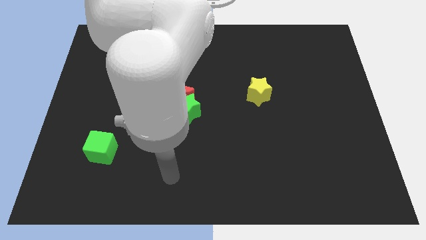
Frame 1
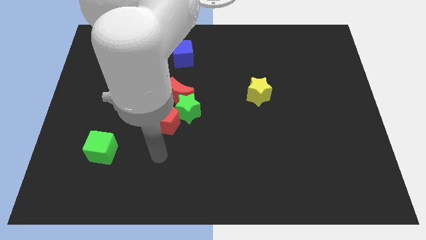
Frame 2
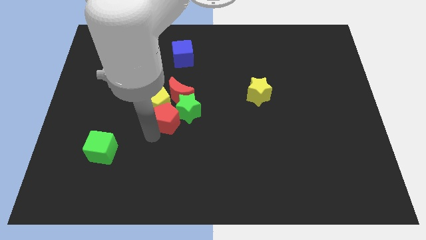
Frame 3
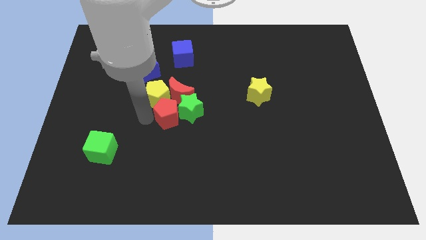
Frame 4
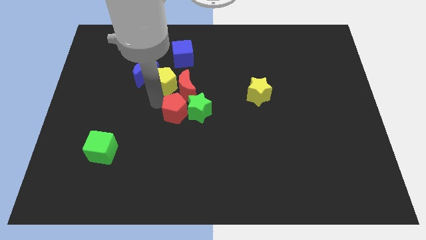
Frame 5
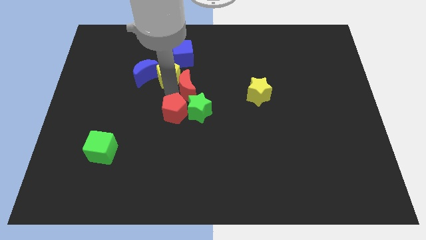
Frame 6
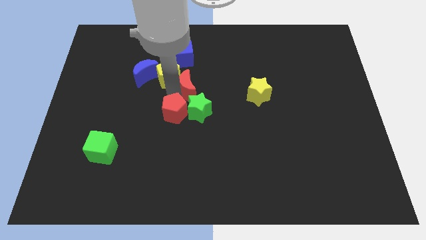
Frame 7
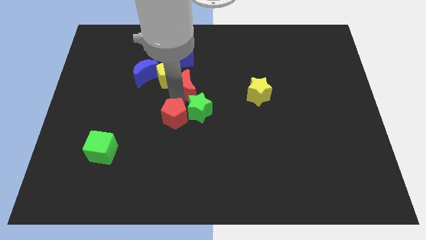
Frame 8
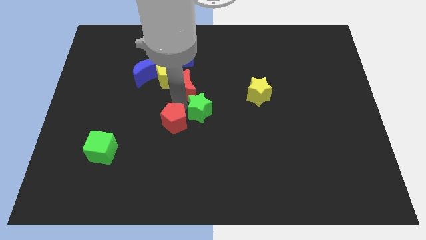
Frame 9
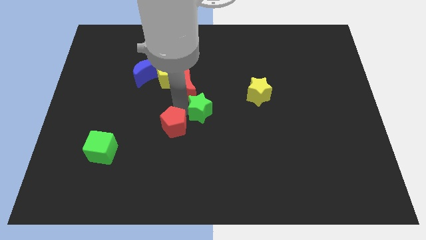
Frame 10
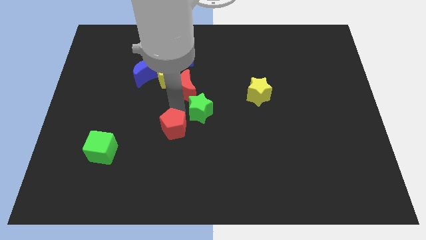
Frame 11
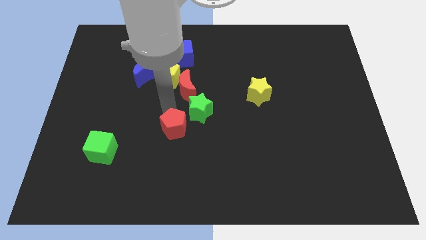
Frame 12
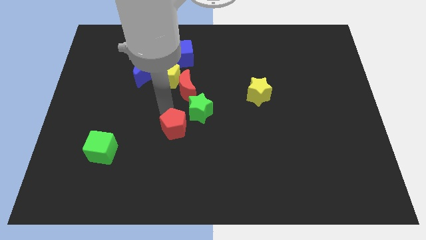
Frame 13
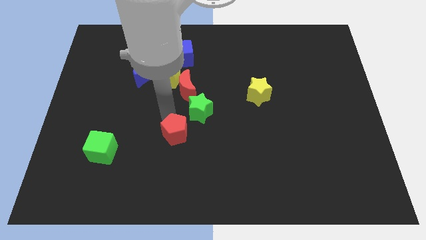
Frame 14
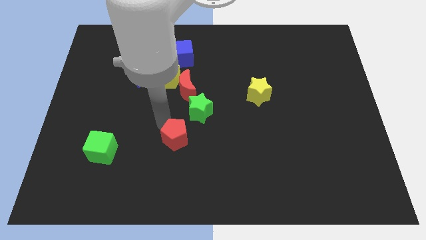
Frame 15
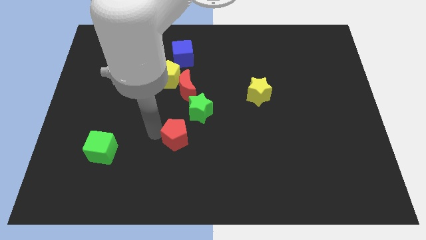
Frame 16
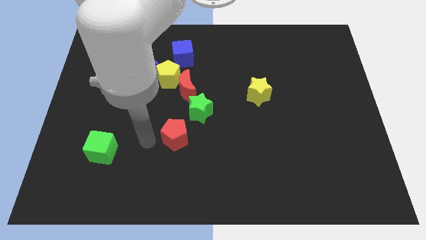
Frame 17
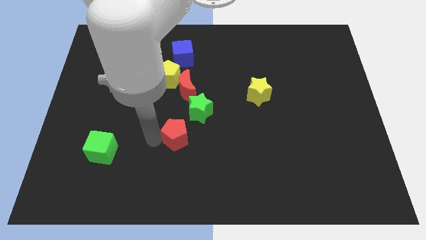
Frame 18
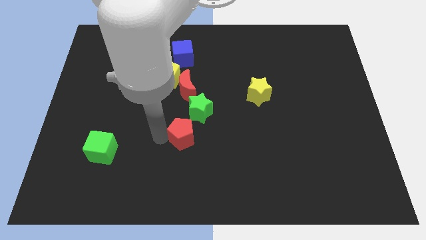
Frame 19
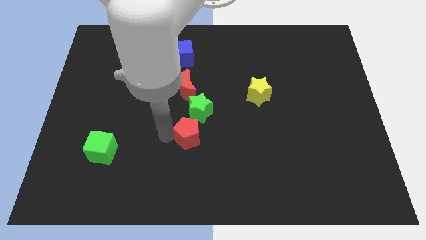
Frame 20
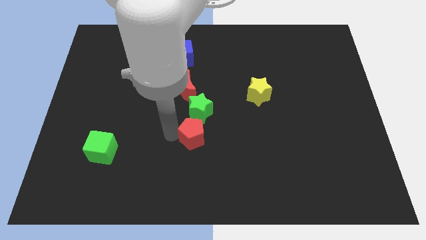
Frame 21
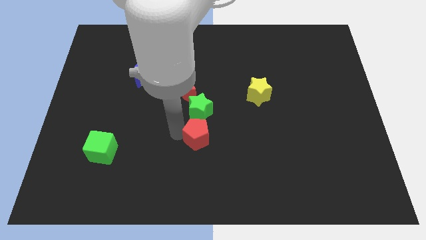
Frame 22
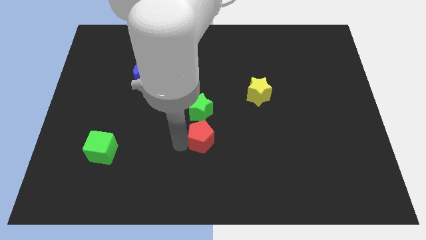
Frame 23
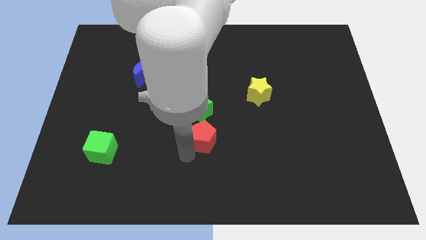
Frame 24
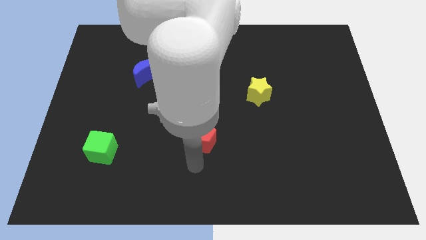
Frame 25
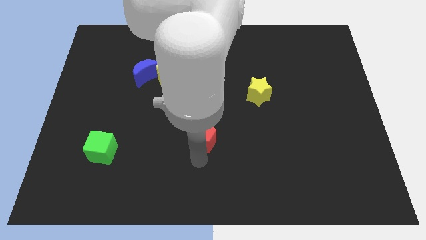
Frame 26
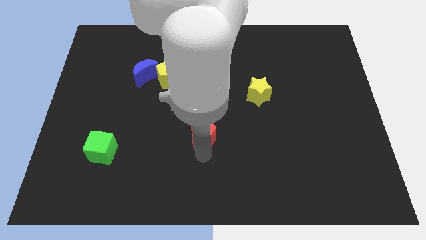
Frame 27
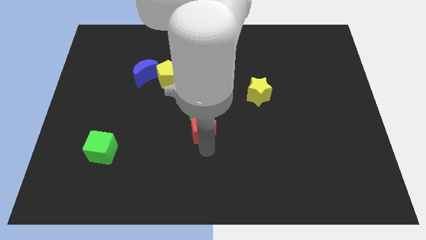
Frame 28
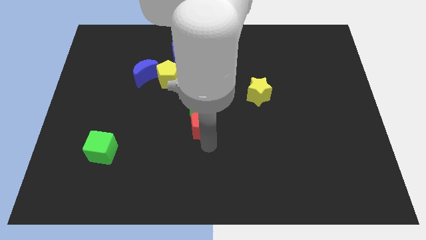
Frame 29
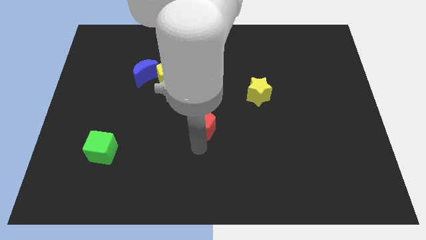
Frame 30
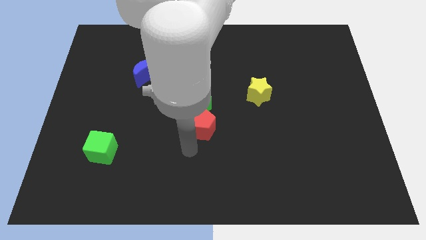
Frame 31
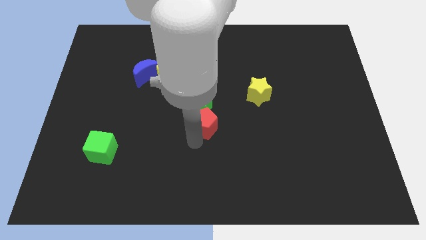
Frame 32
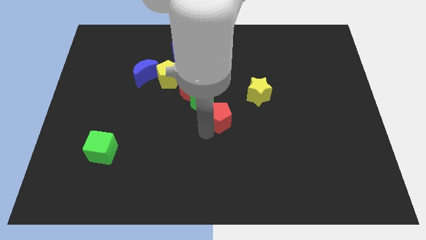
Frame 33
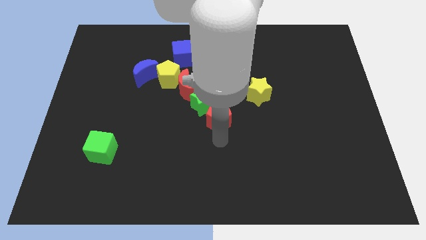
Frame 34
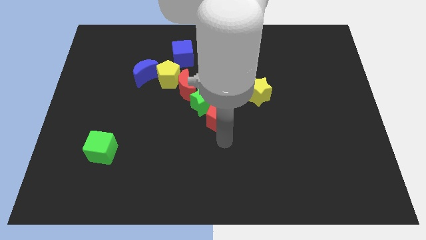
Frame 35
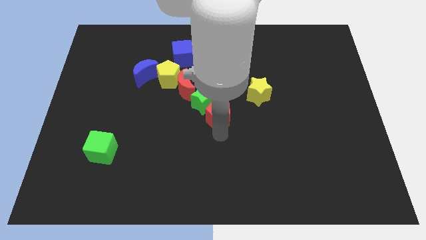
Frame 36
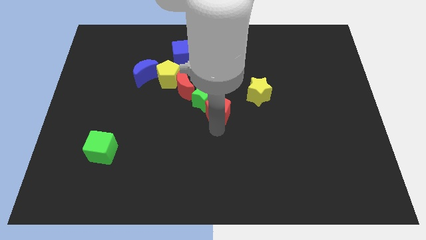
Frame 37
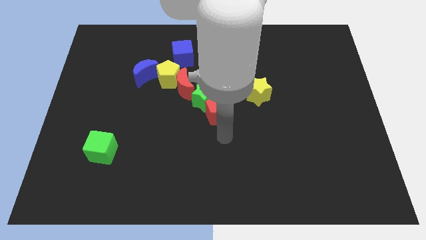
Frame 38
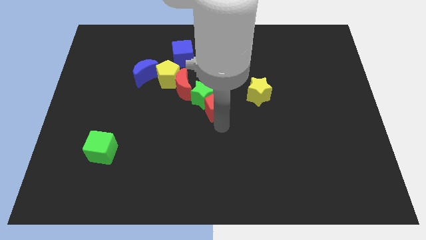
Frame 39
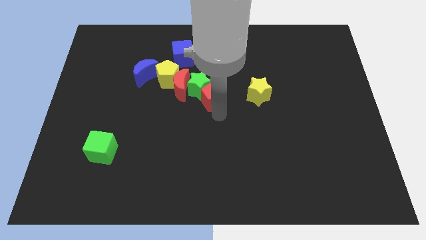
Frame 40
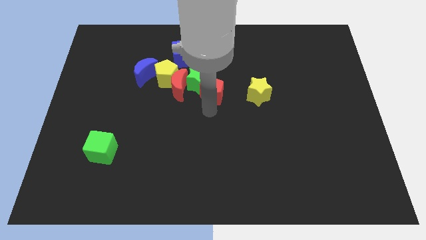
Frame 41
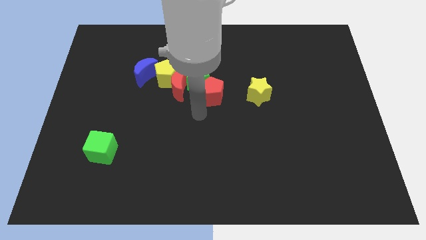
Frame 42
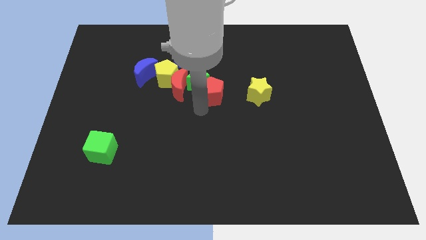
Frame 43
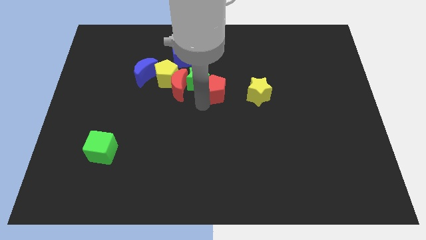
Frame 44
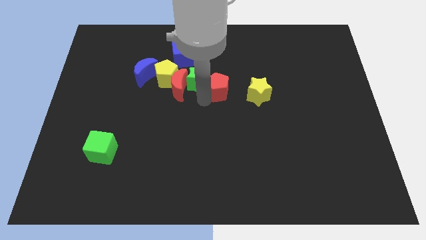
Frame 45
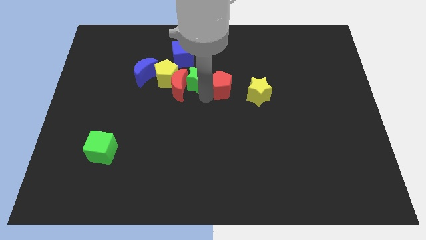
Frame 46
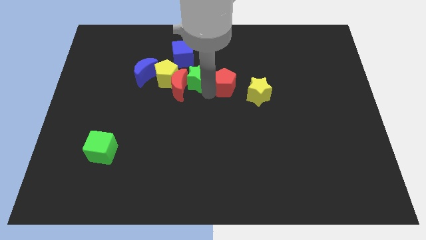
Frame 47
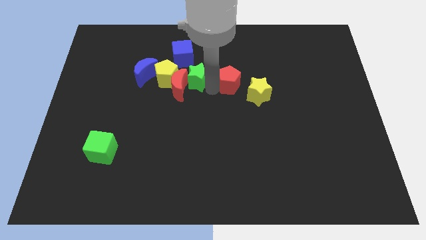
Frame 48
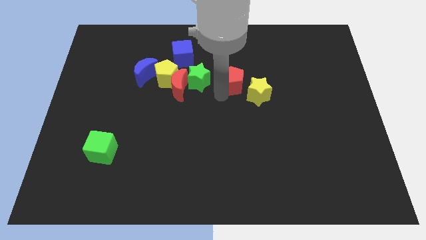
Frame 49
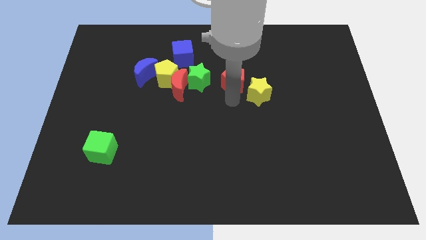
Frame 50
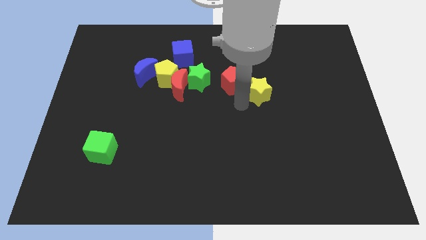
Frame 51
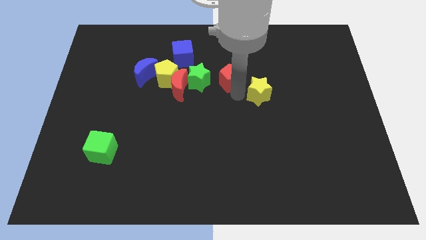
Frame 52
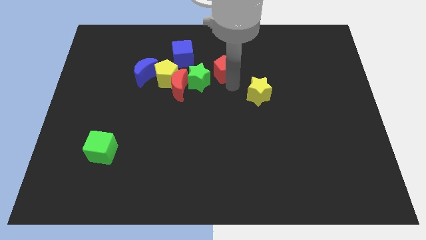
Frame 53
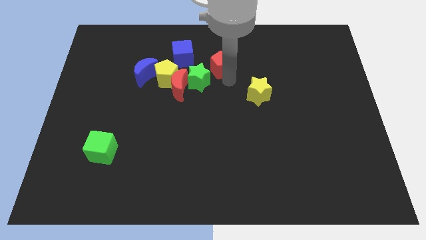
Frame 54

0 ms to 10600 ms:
put the red pentagon right of the blue cube

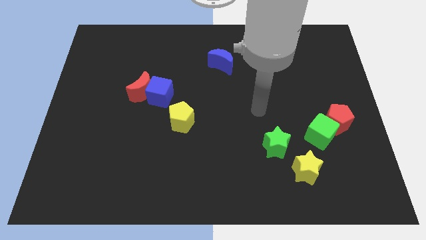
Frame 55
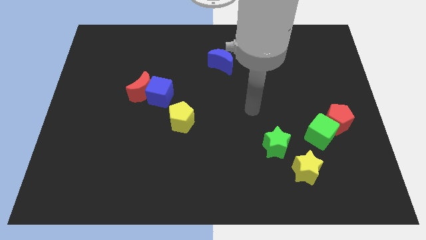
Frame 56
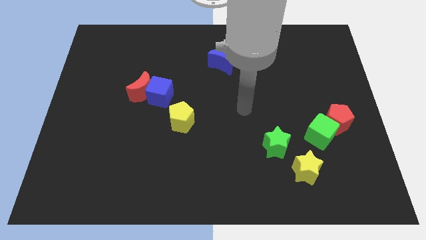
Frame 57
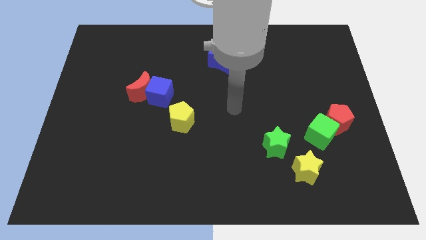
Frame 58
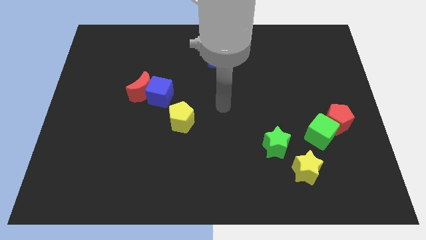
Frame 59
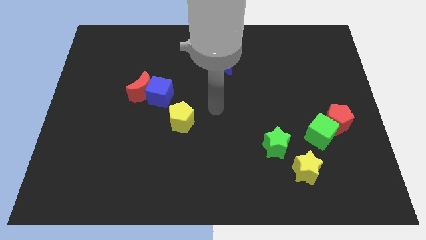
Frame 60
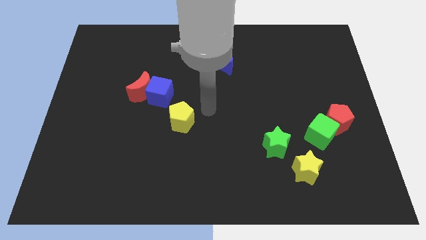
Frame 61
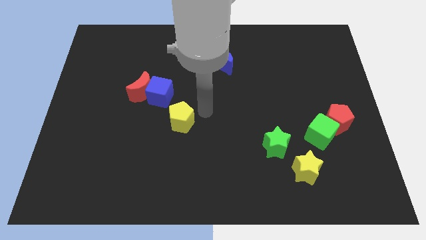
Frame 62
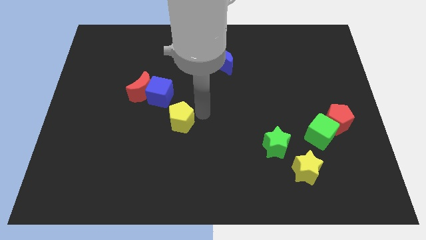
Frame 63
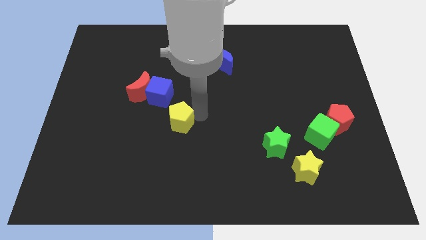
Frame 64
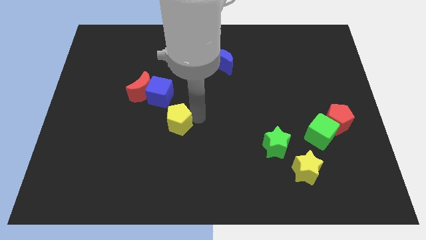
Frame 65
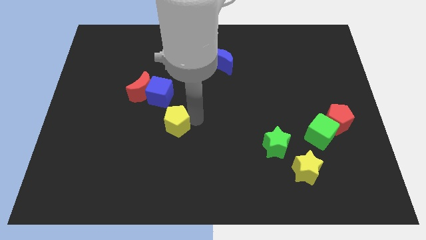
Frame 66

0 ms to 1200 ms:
slide the yellow pentagon to the bottom of the blue cube

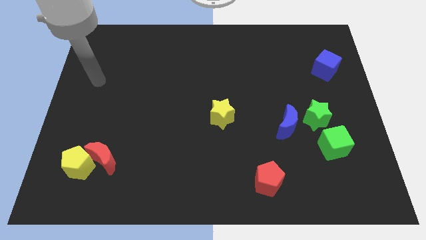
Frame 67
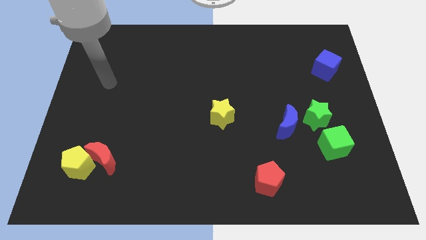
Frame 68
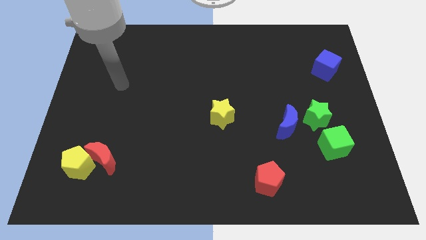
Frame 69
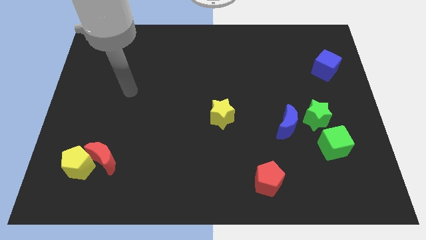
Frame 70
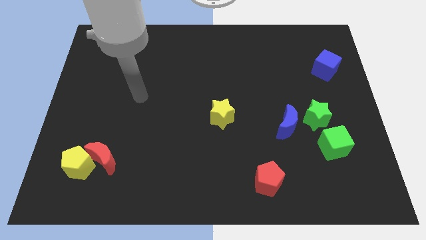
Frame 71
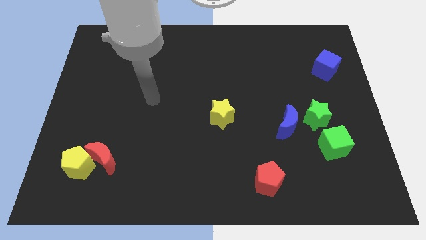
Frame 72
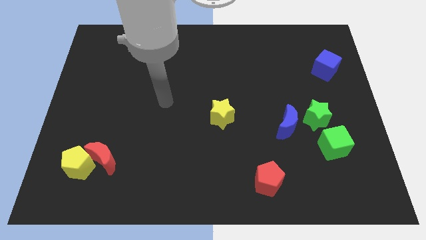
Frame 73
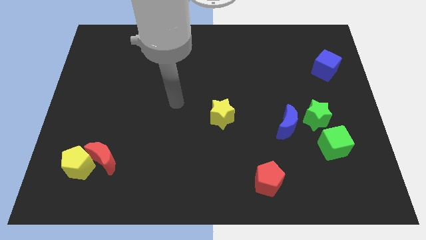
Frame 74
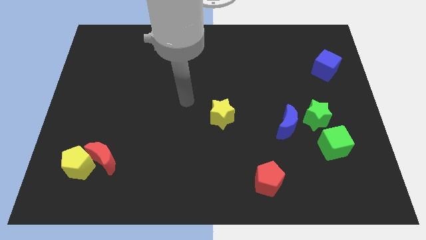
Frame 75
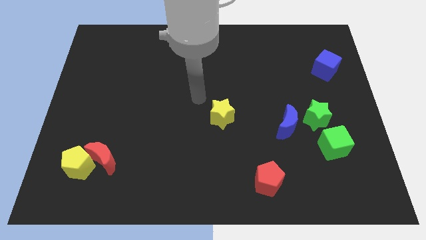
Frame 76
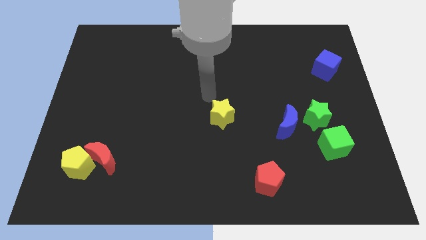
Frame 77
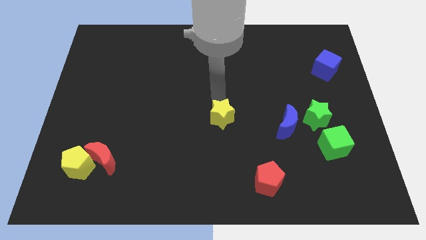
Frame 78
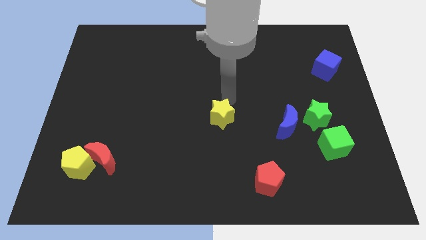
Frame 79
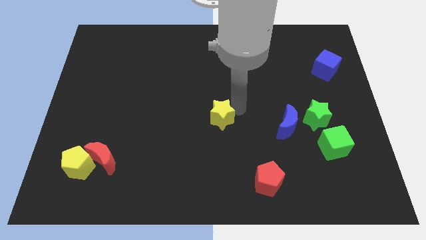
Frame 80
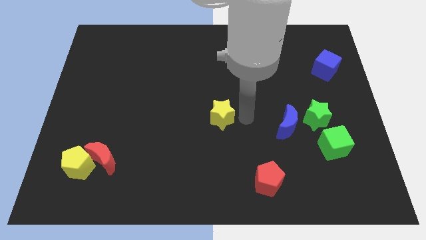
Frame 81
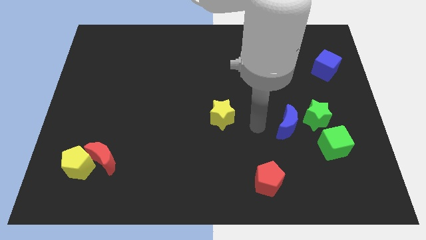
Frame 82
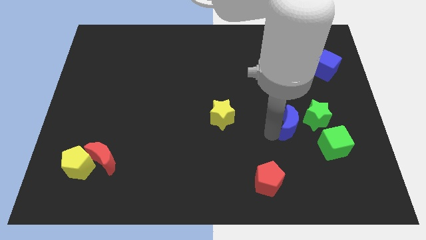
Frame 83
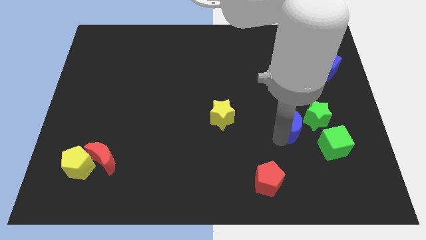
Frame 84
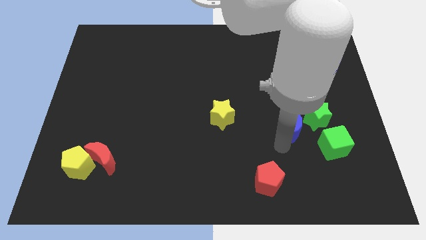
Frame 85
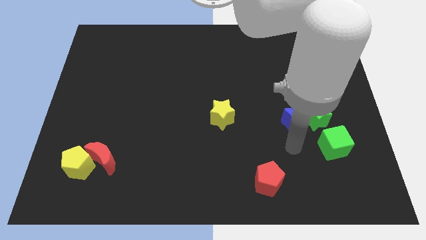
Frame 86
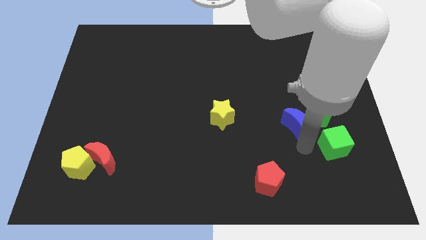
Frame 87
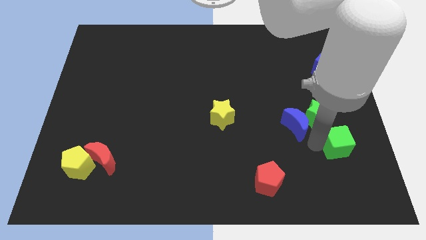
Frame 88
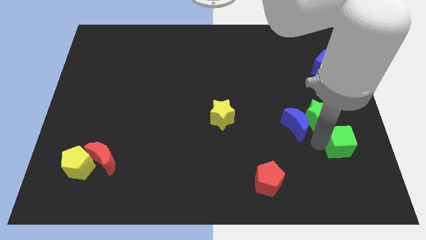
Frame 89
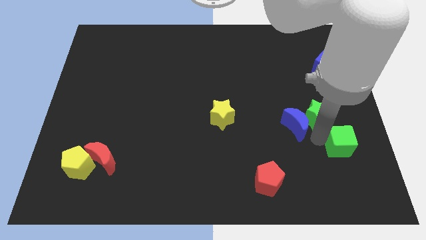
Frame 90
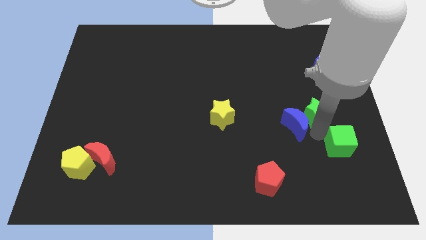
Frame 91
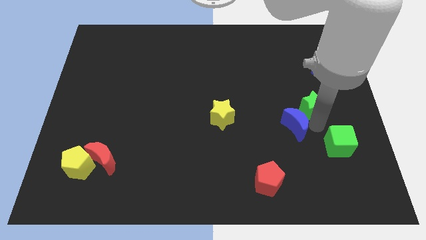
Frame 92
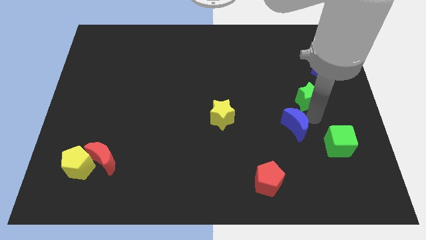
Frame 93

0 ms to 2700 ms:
put the green star to the bottom left side of the blue cube
